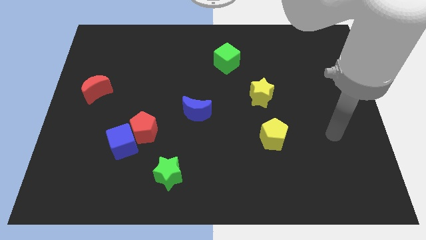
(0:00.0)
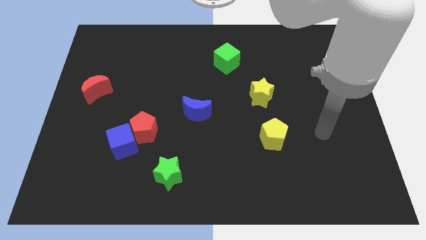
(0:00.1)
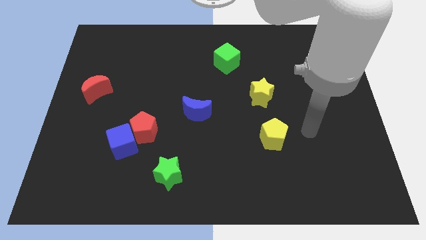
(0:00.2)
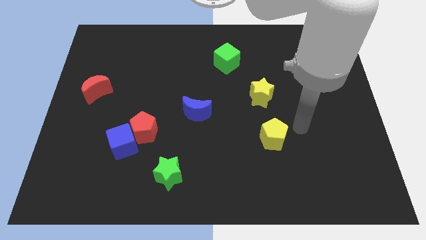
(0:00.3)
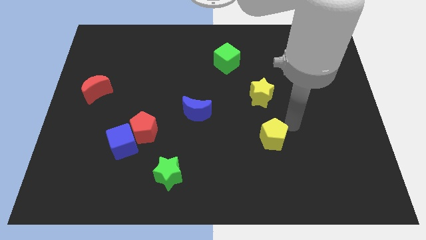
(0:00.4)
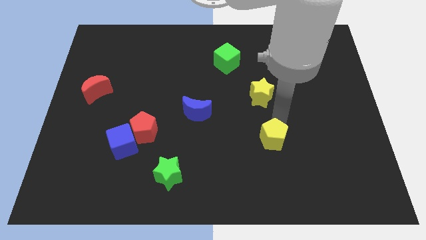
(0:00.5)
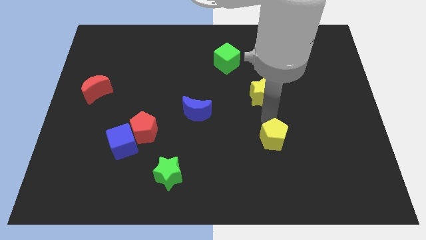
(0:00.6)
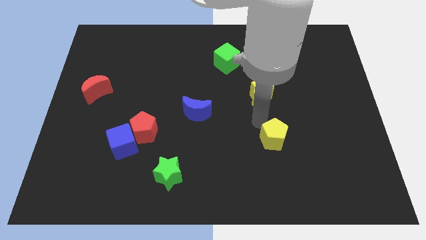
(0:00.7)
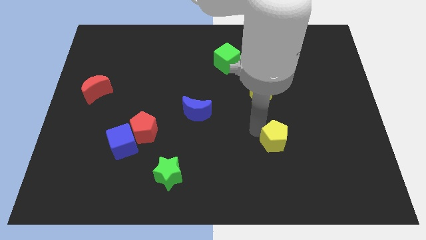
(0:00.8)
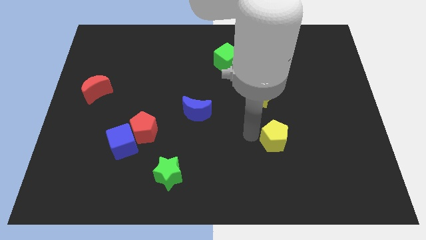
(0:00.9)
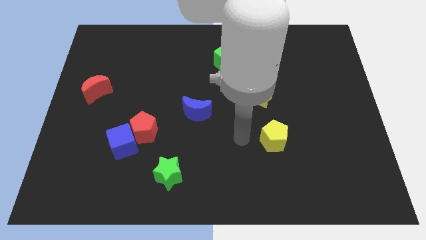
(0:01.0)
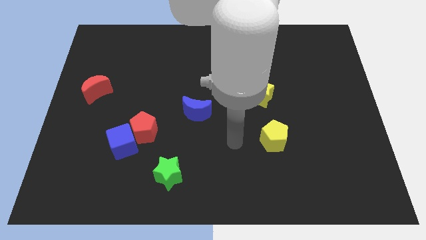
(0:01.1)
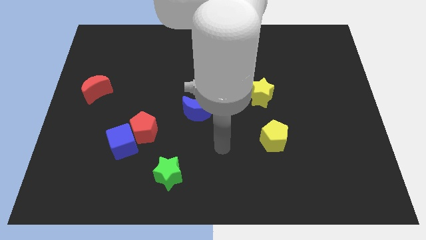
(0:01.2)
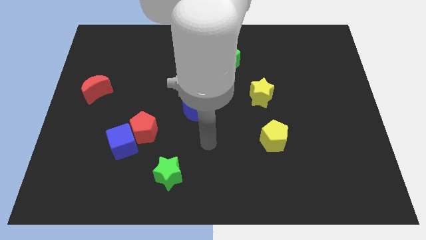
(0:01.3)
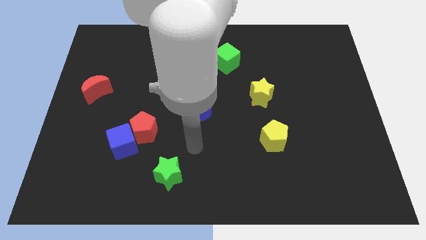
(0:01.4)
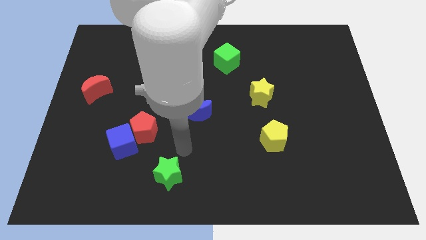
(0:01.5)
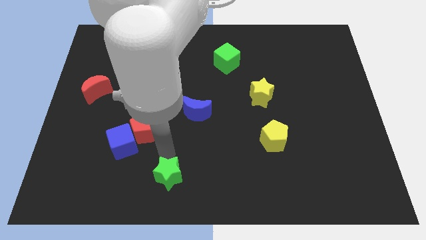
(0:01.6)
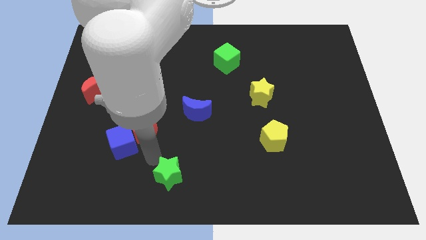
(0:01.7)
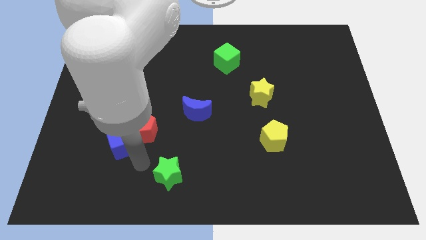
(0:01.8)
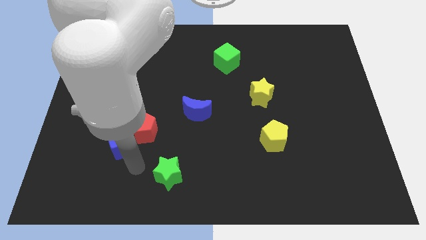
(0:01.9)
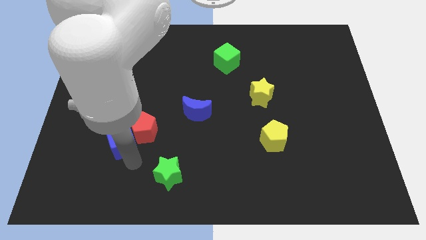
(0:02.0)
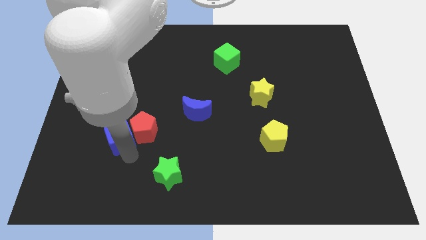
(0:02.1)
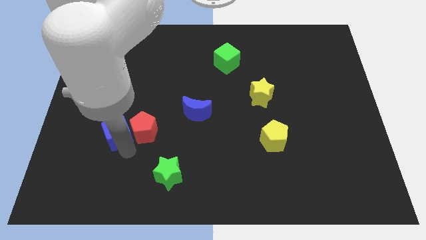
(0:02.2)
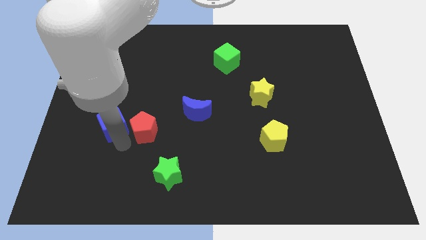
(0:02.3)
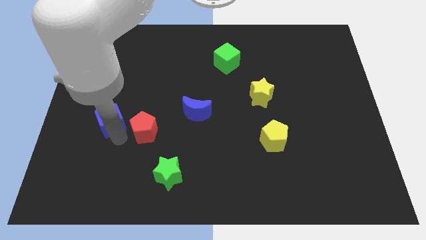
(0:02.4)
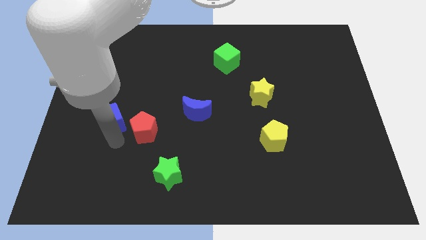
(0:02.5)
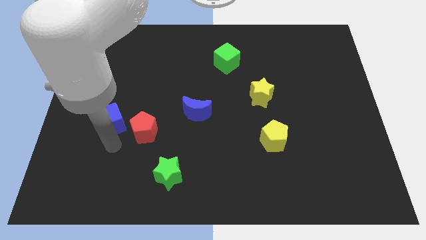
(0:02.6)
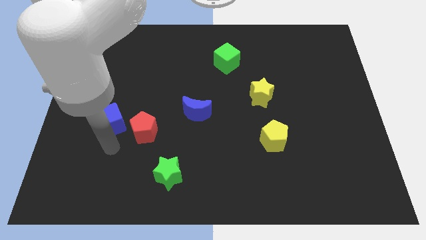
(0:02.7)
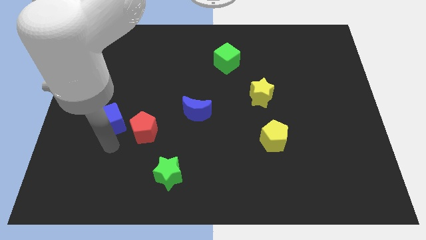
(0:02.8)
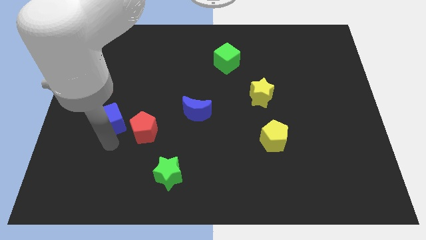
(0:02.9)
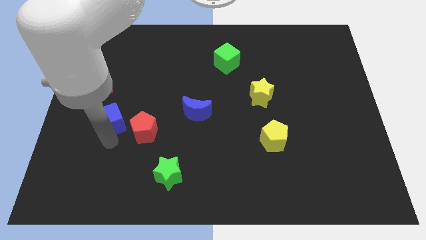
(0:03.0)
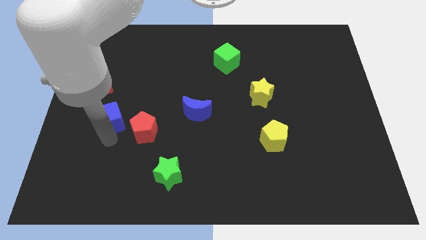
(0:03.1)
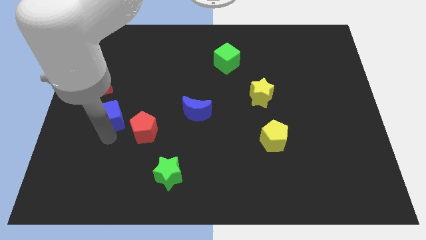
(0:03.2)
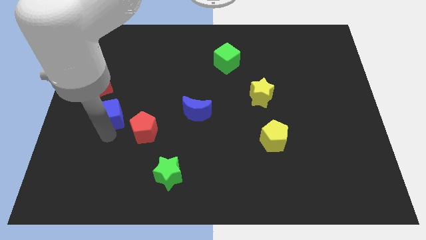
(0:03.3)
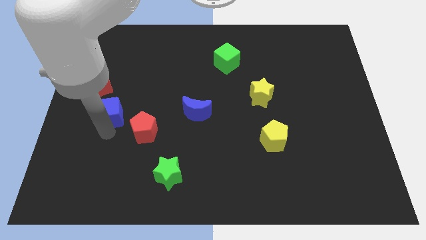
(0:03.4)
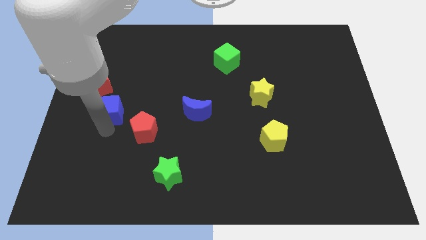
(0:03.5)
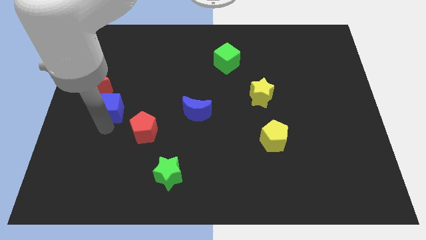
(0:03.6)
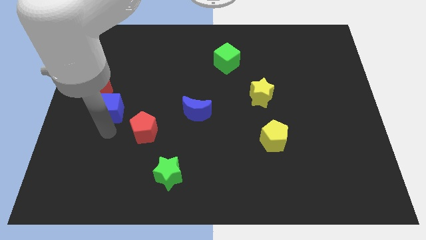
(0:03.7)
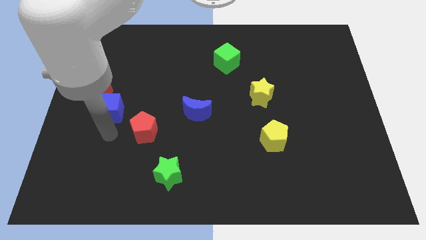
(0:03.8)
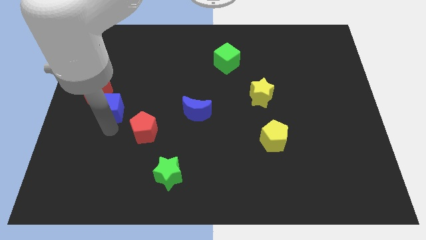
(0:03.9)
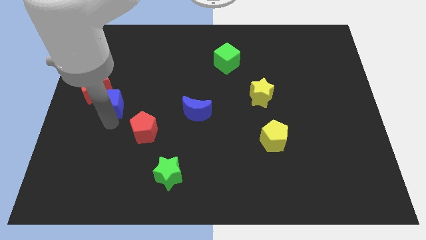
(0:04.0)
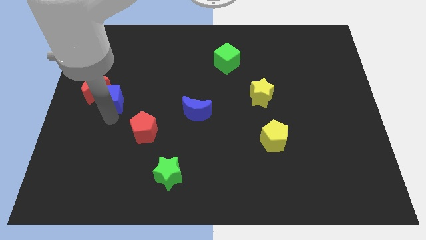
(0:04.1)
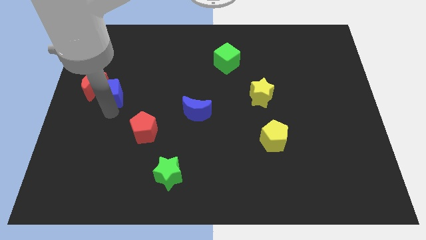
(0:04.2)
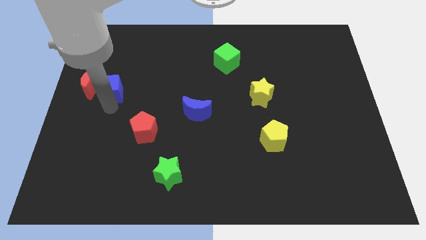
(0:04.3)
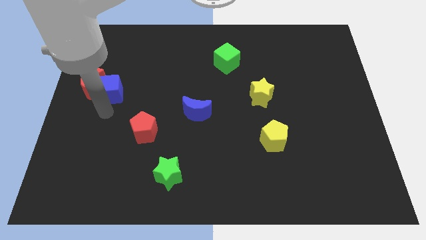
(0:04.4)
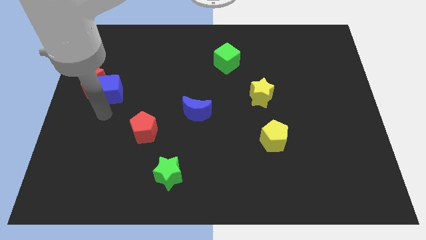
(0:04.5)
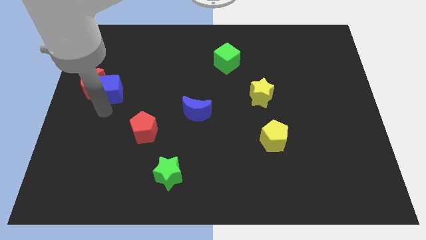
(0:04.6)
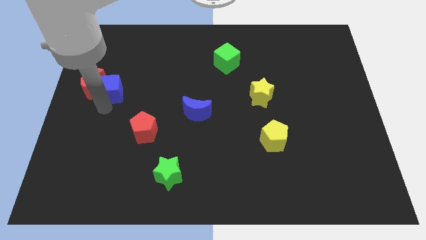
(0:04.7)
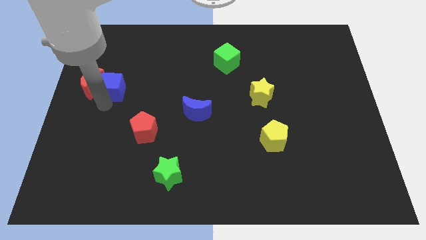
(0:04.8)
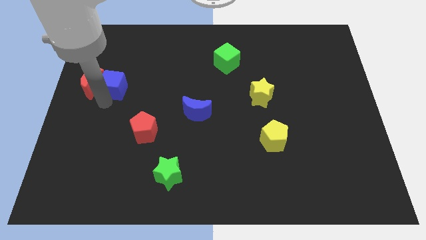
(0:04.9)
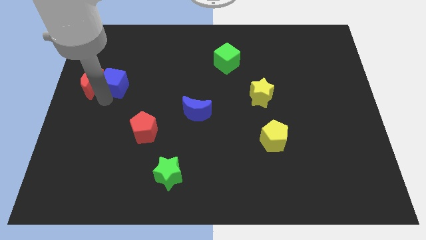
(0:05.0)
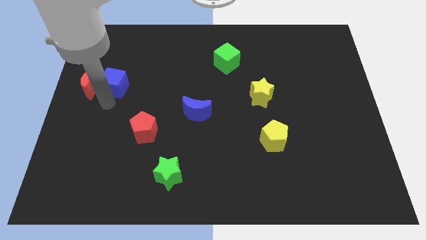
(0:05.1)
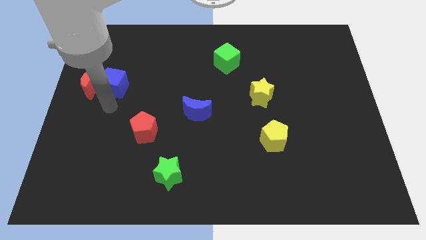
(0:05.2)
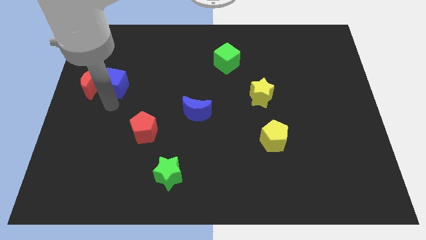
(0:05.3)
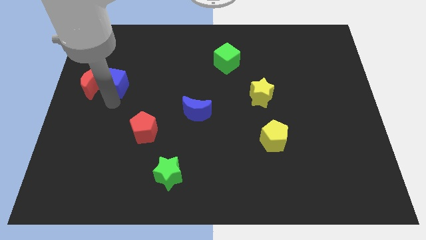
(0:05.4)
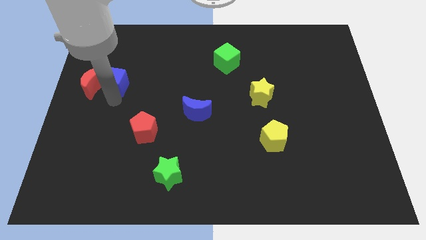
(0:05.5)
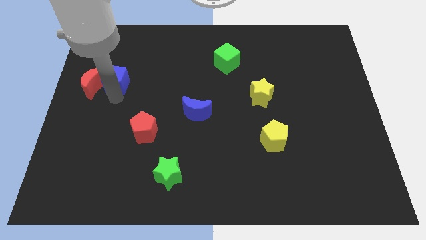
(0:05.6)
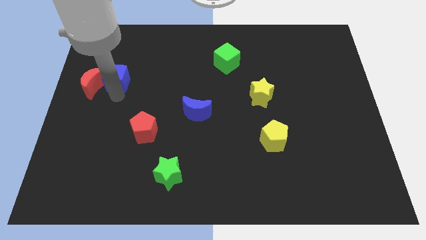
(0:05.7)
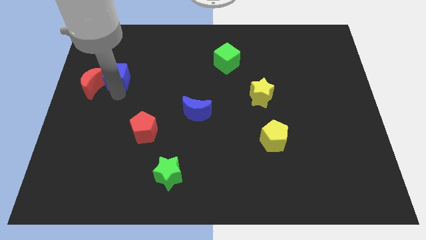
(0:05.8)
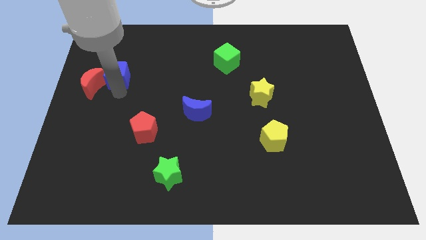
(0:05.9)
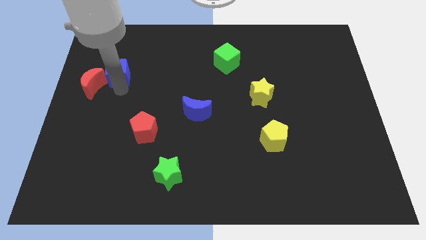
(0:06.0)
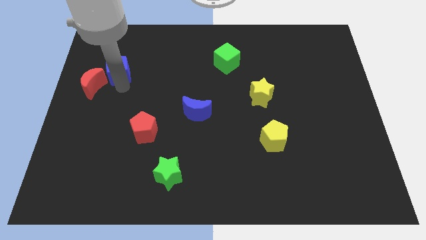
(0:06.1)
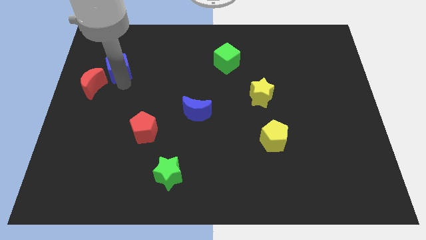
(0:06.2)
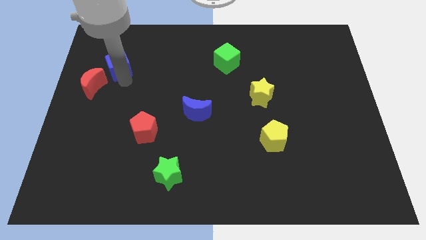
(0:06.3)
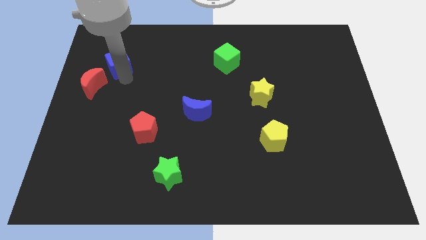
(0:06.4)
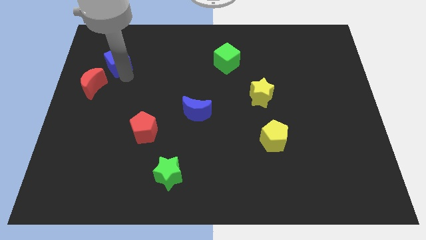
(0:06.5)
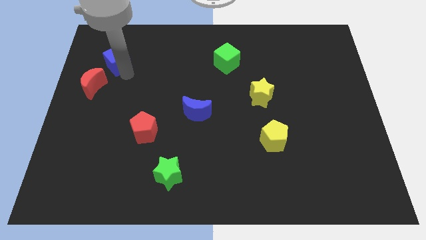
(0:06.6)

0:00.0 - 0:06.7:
move the blue cube to the top of the red moon

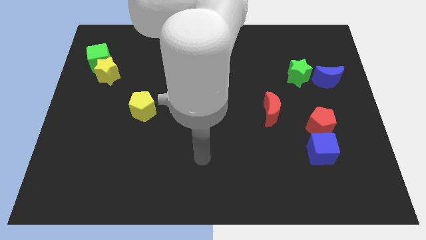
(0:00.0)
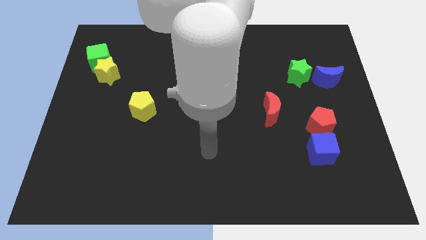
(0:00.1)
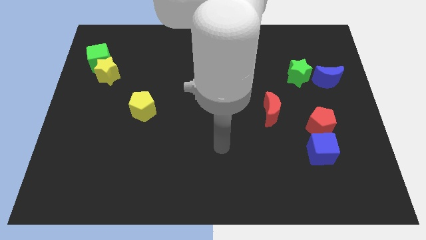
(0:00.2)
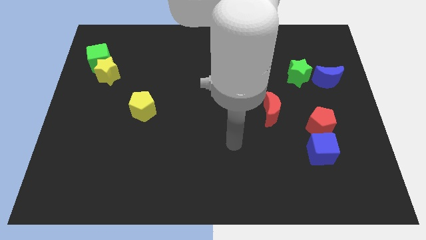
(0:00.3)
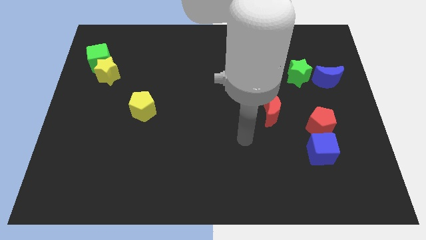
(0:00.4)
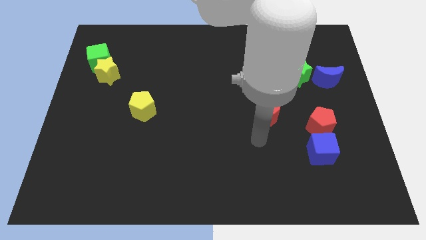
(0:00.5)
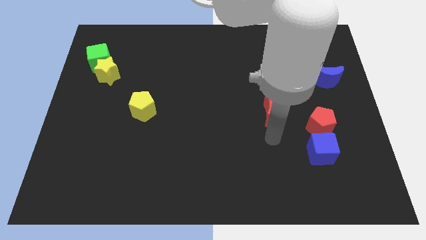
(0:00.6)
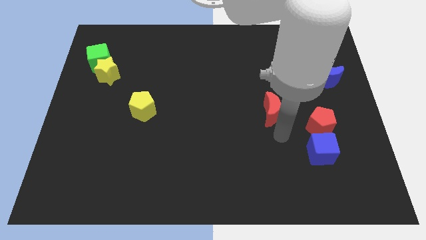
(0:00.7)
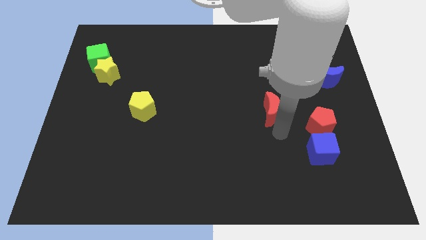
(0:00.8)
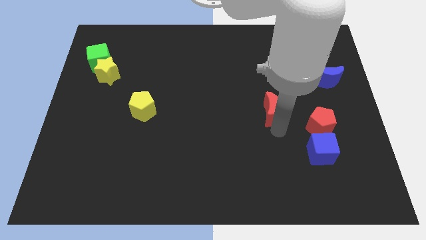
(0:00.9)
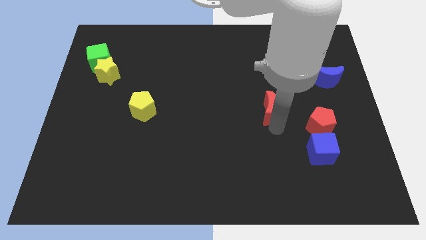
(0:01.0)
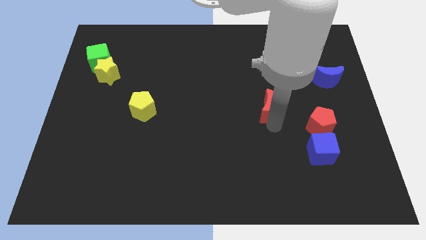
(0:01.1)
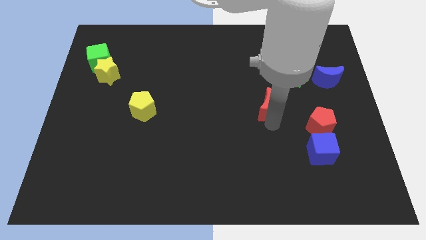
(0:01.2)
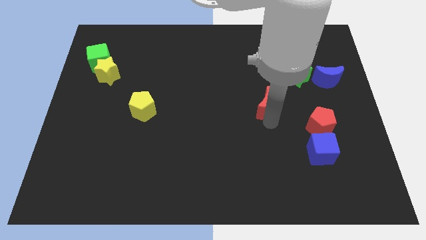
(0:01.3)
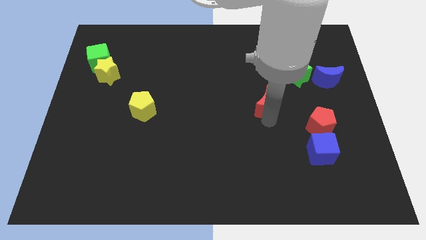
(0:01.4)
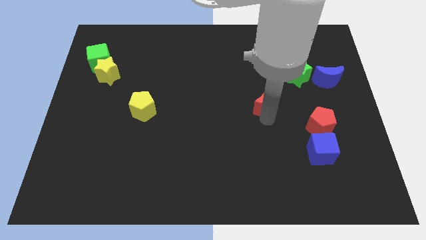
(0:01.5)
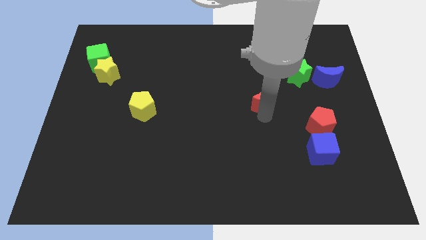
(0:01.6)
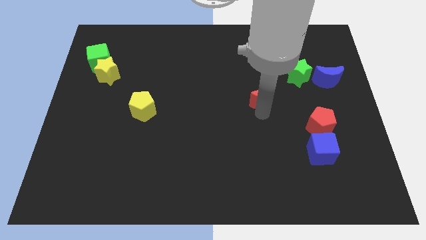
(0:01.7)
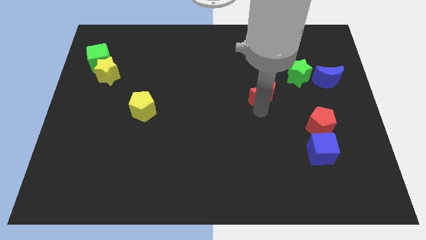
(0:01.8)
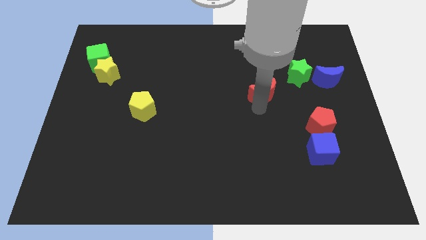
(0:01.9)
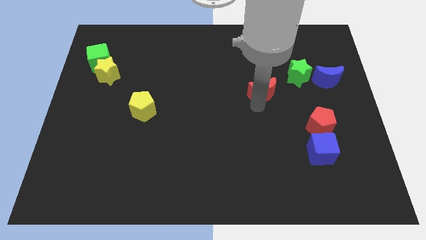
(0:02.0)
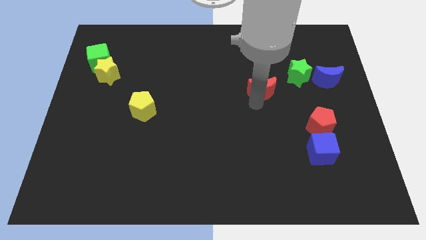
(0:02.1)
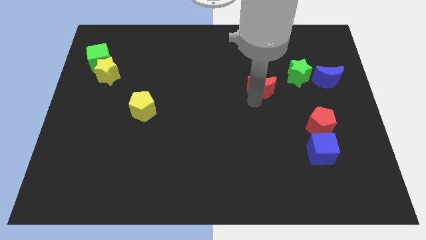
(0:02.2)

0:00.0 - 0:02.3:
move the red moon just left of the green star
